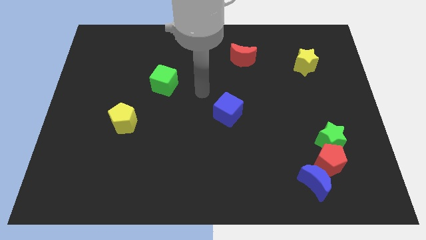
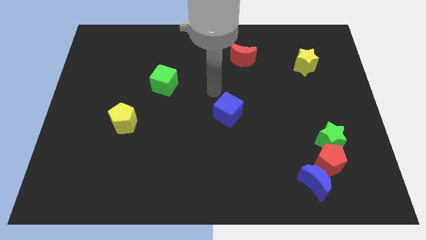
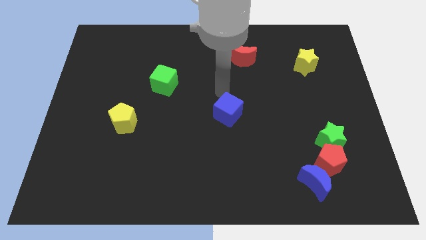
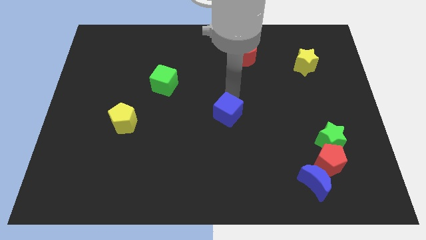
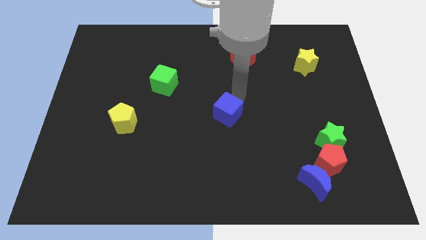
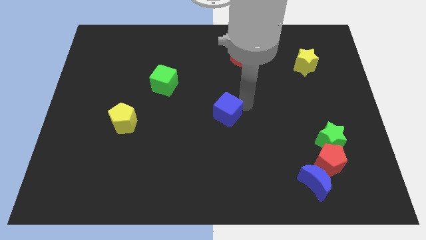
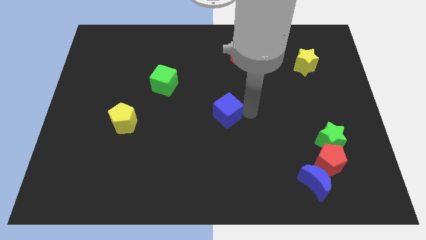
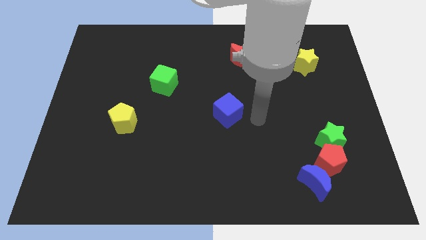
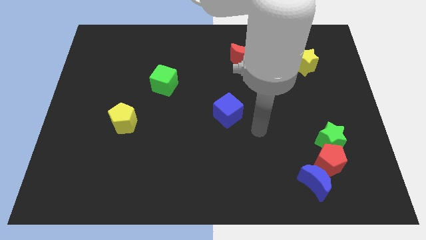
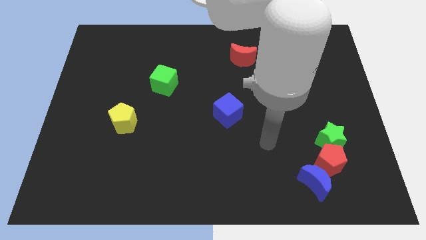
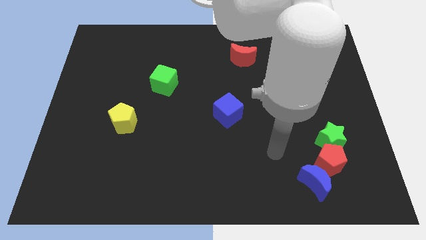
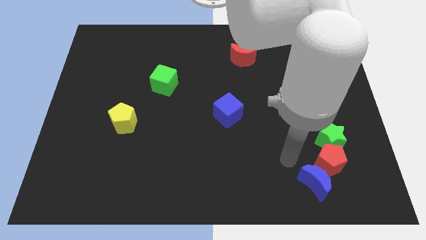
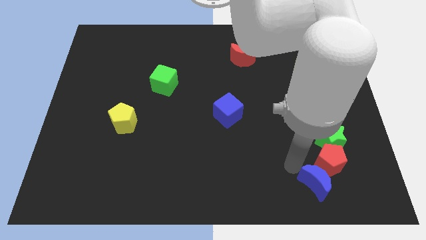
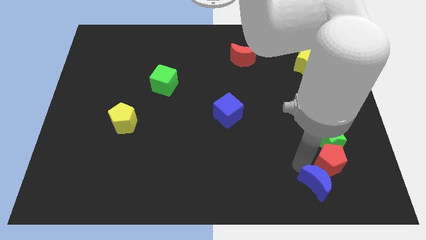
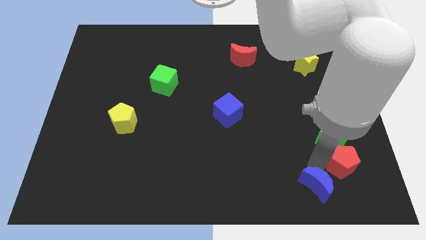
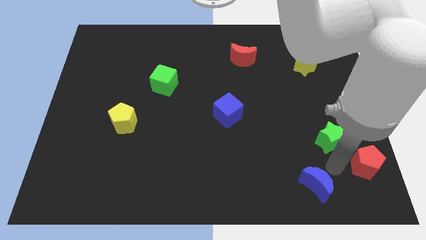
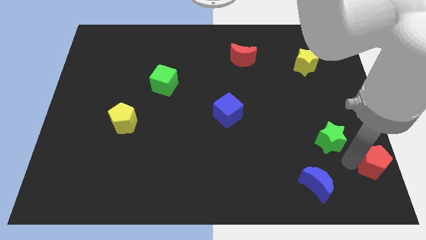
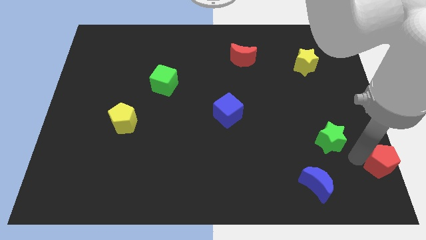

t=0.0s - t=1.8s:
move the green star away from the red pentagon

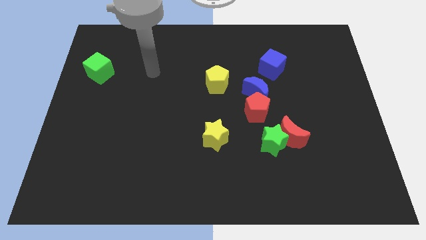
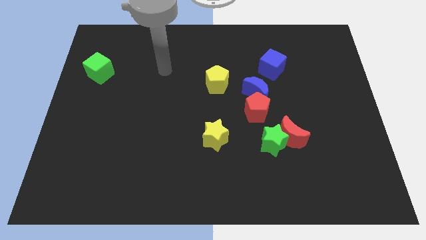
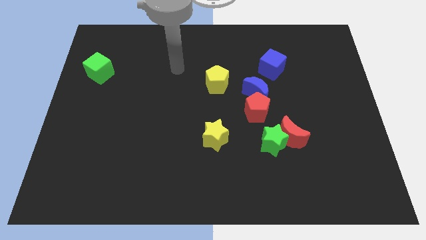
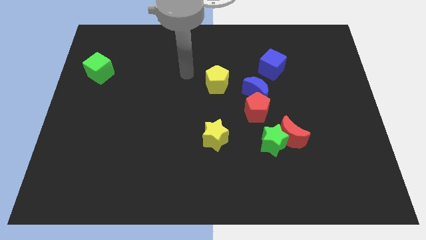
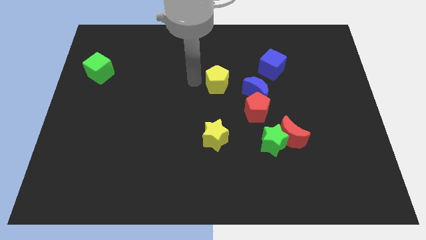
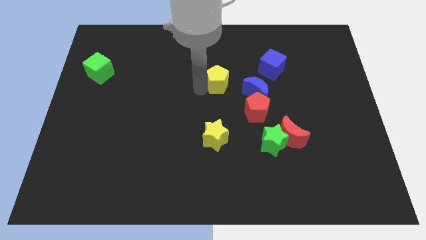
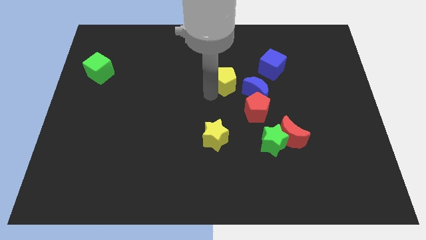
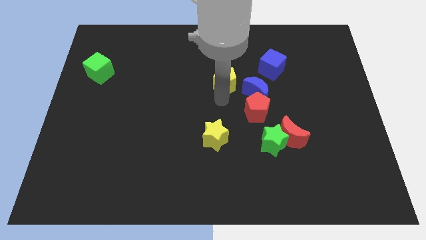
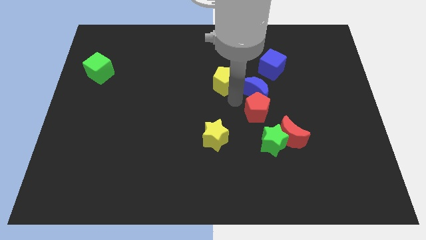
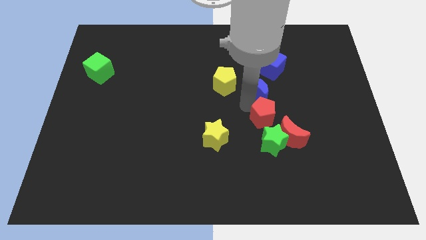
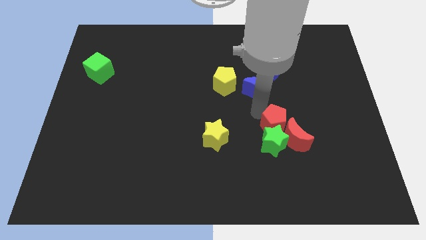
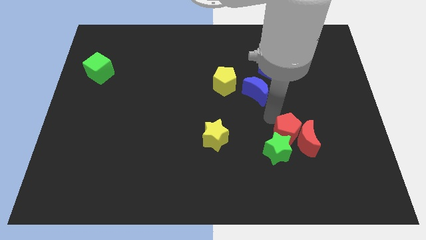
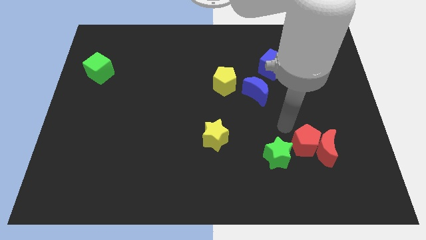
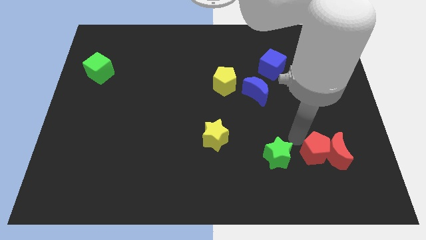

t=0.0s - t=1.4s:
move the green star away from the red moon and red pentagon

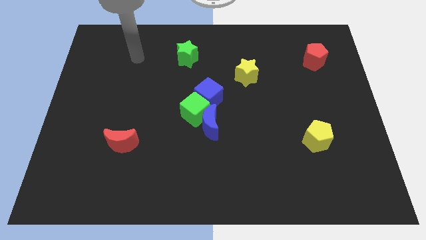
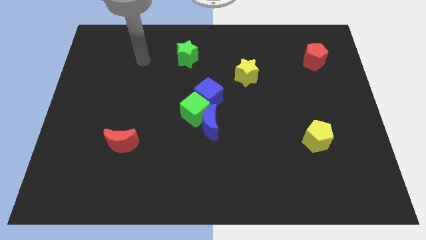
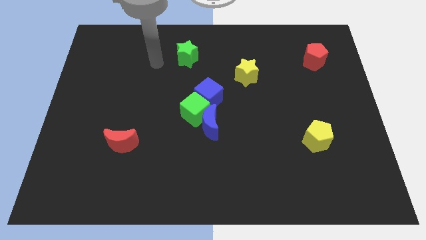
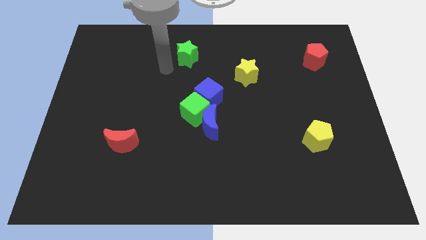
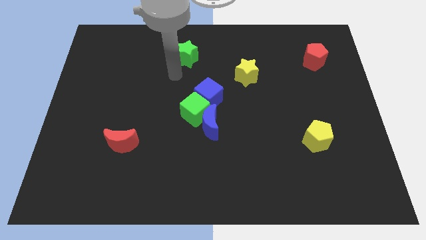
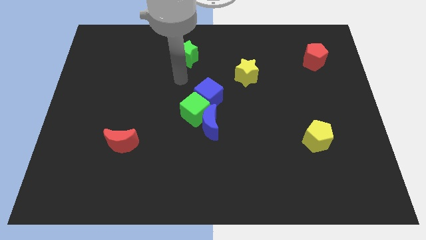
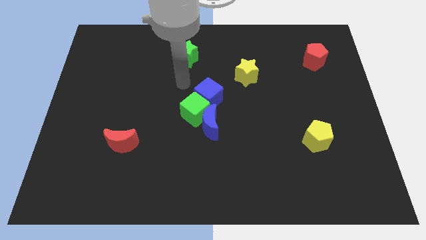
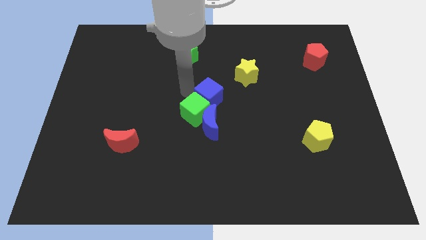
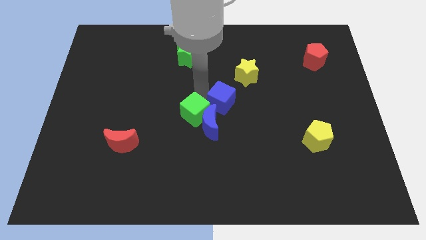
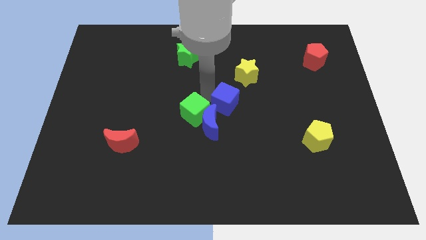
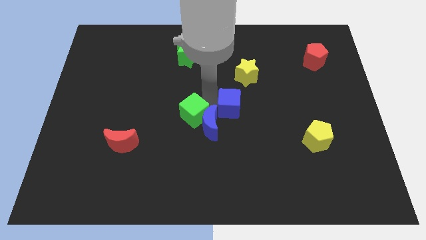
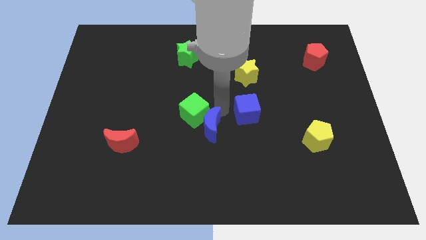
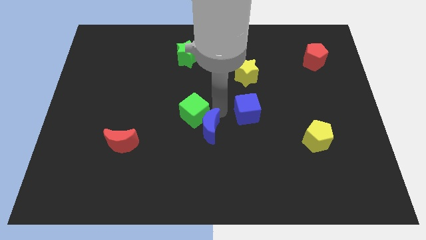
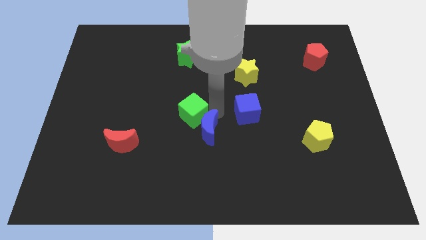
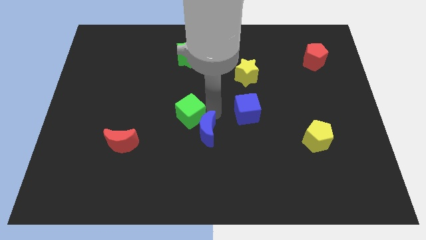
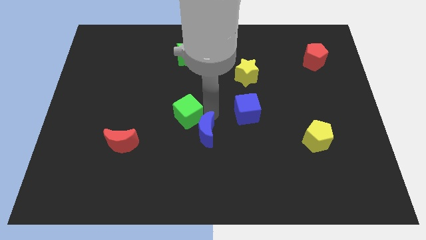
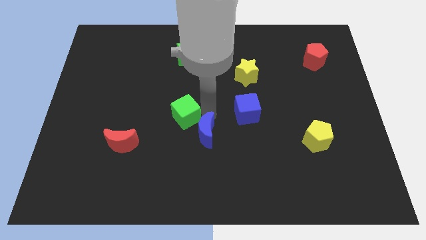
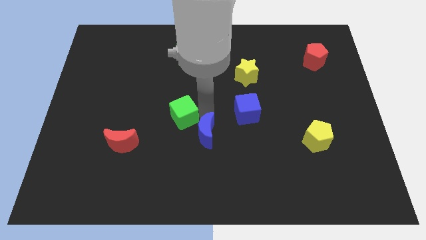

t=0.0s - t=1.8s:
move the green cube away from the blue moon and blue cube

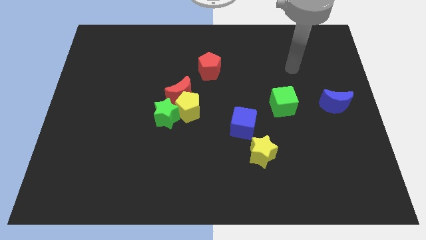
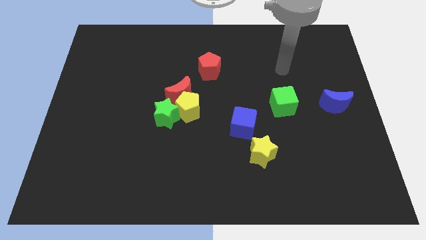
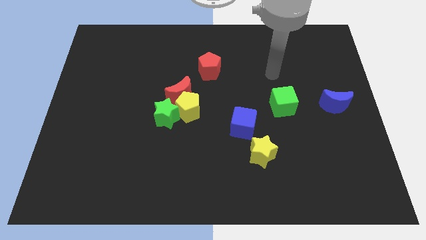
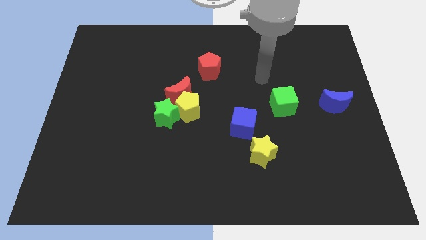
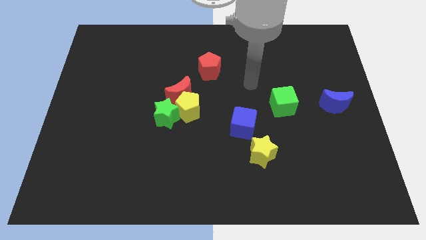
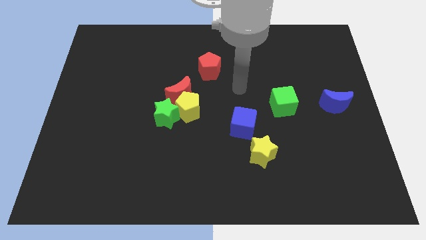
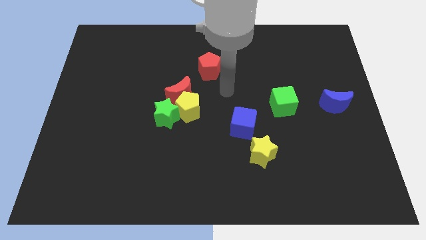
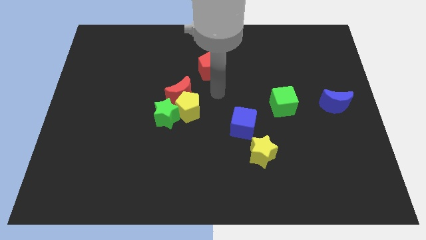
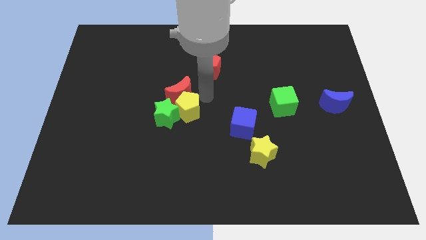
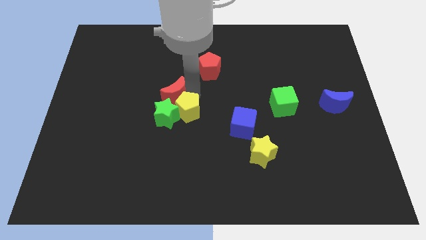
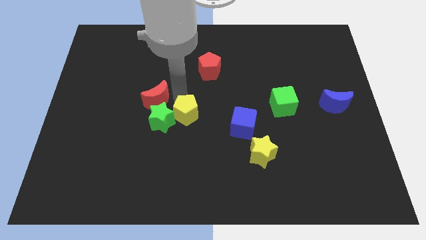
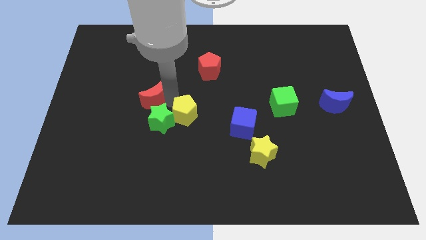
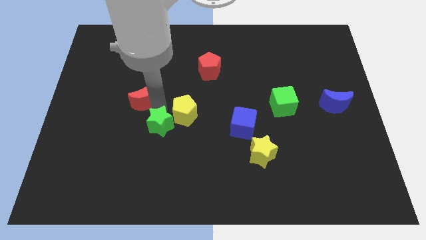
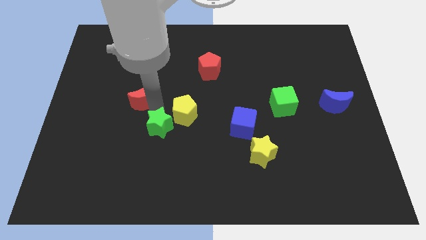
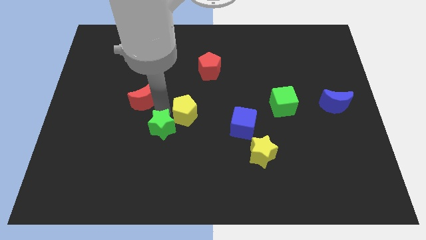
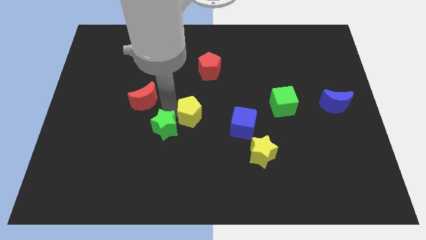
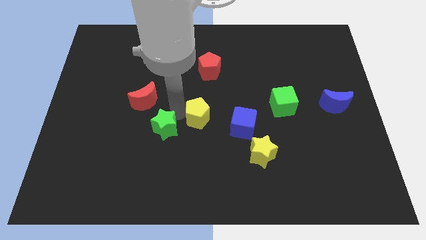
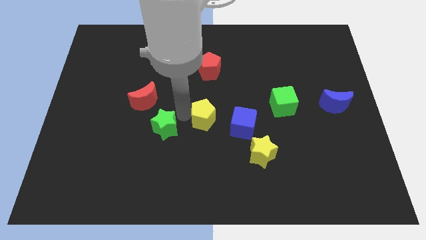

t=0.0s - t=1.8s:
pull the yellow pentagon apart from the red moon and green star

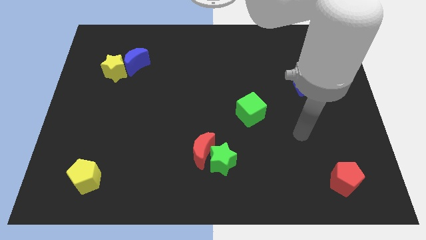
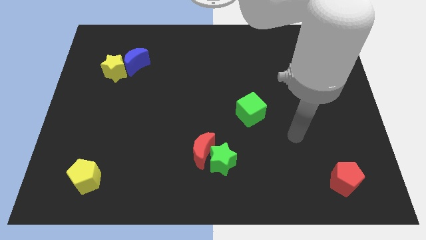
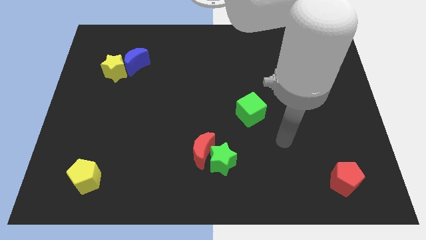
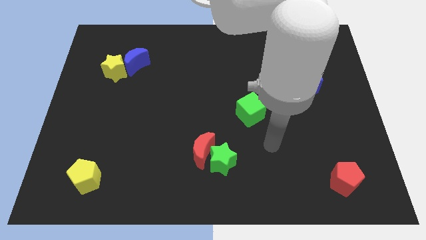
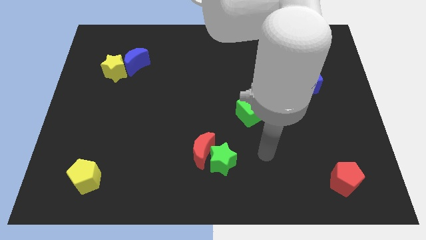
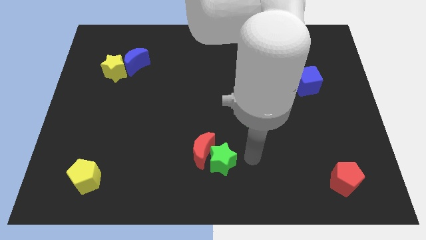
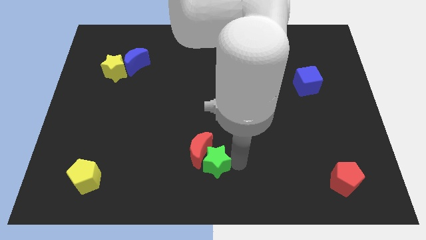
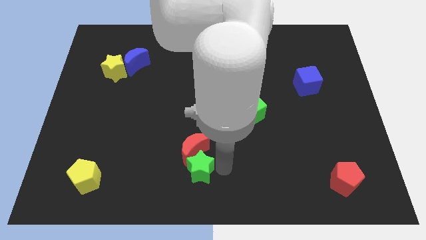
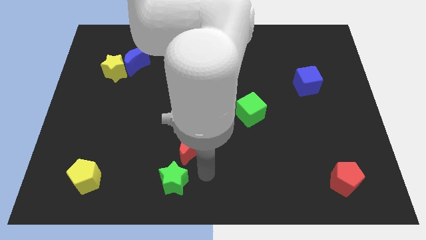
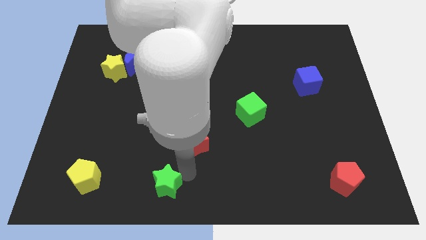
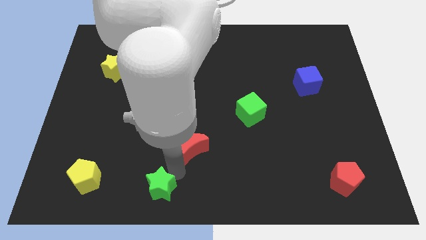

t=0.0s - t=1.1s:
pull the red moon apart from the green star

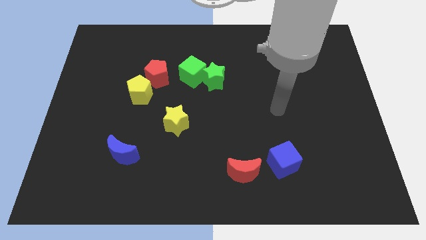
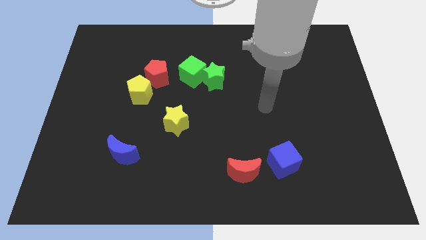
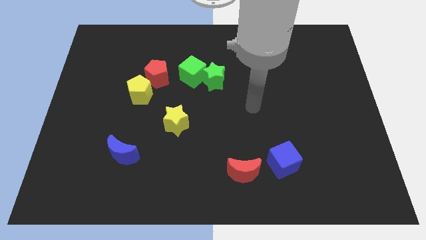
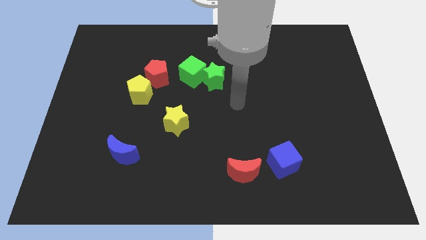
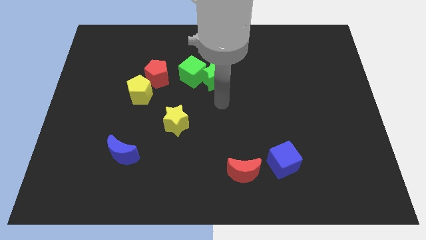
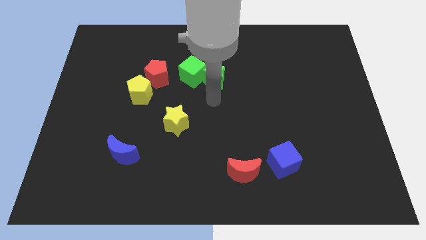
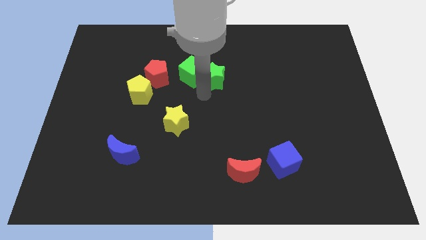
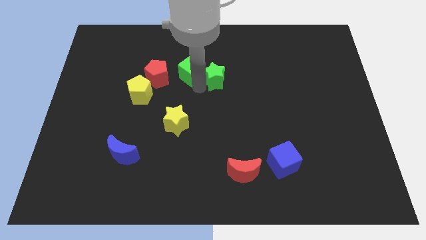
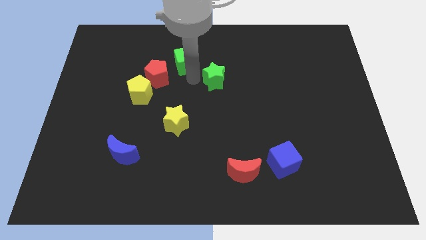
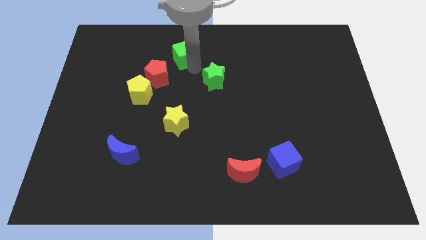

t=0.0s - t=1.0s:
pull the green star apart from the green cube

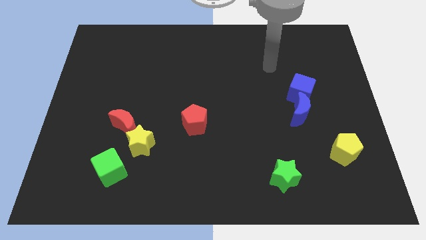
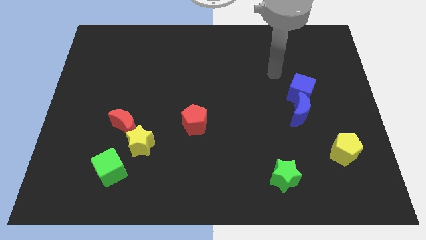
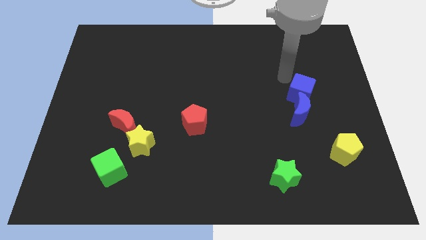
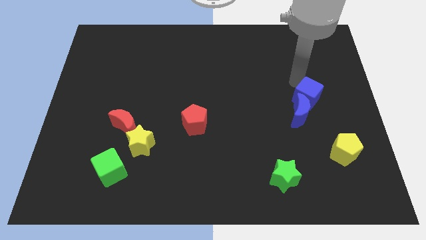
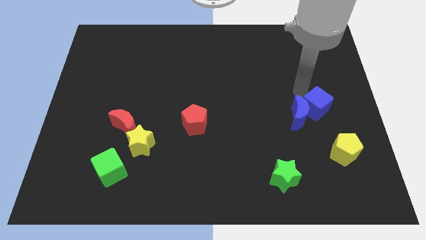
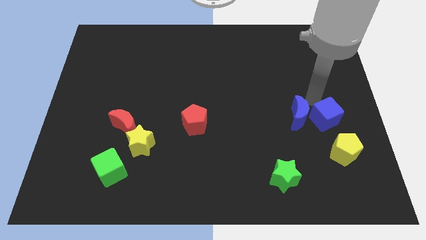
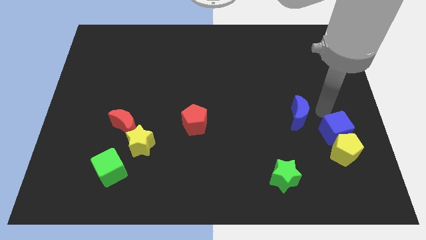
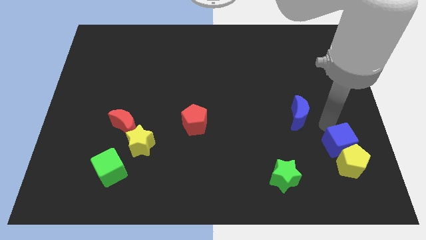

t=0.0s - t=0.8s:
separate the blue moon from the blue cube
